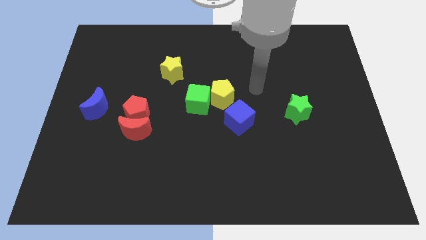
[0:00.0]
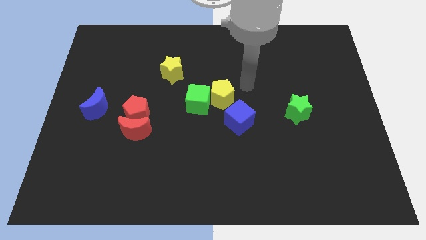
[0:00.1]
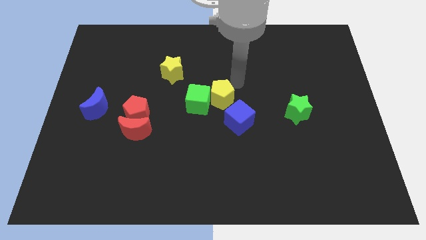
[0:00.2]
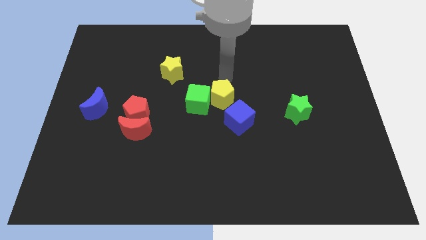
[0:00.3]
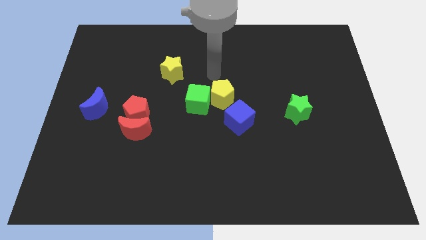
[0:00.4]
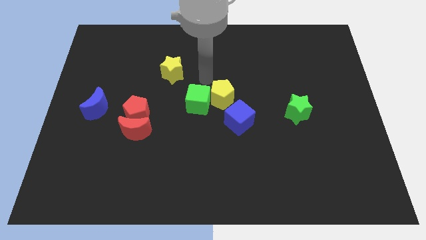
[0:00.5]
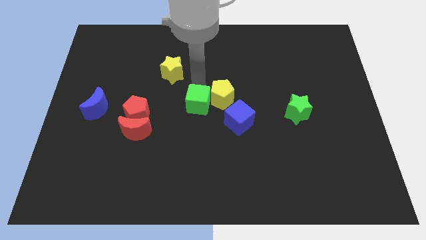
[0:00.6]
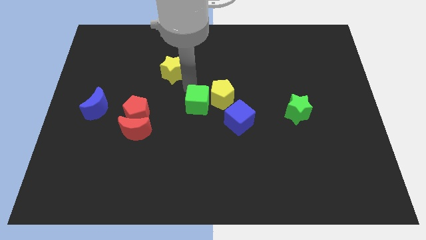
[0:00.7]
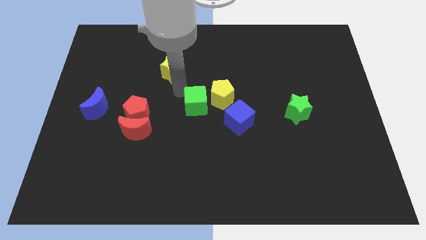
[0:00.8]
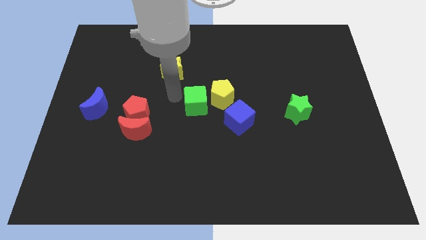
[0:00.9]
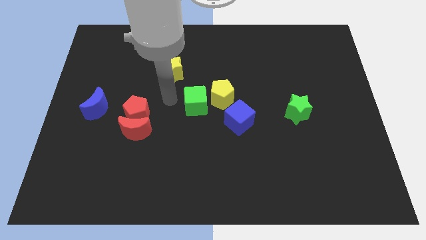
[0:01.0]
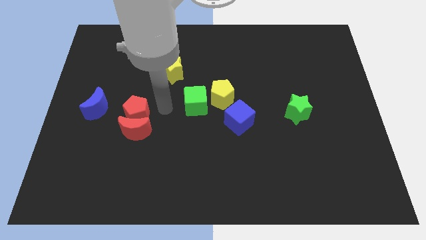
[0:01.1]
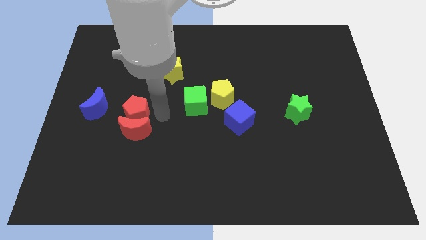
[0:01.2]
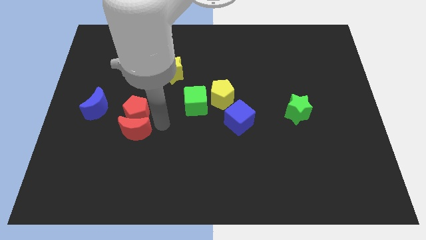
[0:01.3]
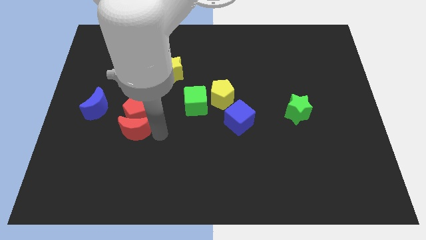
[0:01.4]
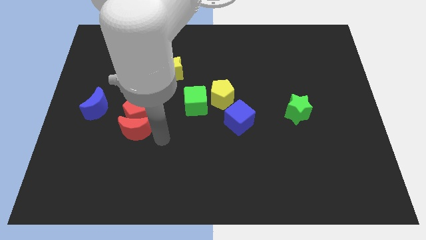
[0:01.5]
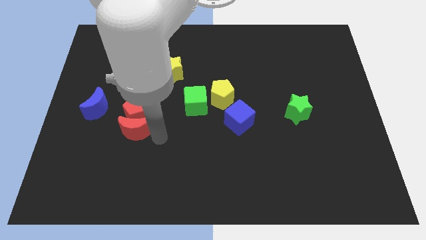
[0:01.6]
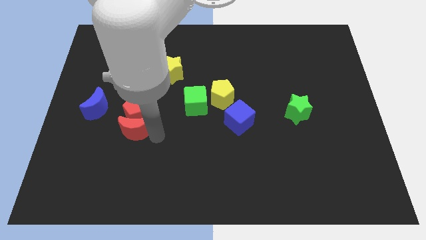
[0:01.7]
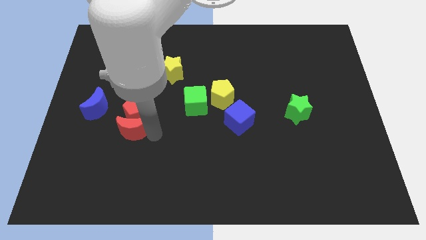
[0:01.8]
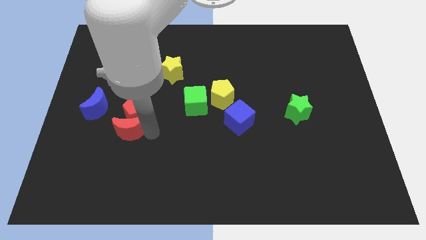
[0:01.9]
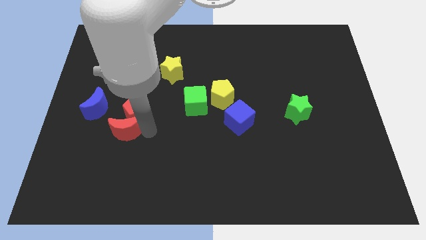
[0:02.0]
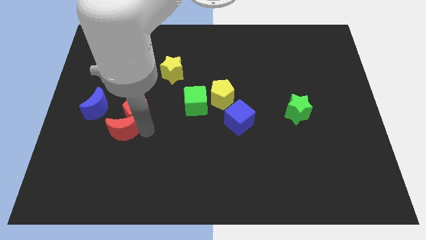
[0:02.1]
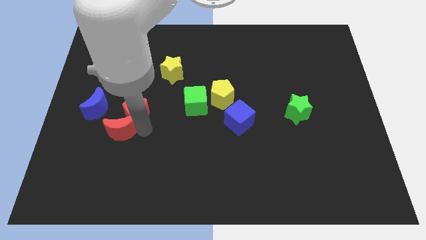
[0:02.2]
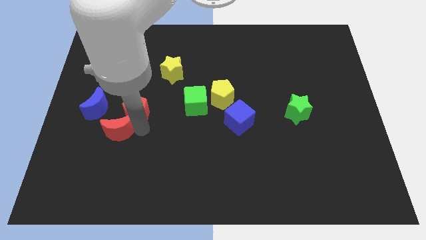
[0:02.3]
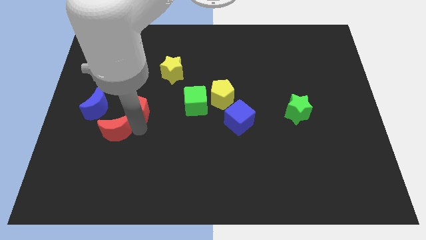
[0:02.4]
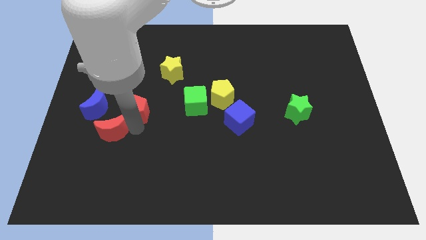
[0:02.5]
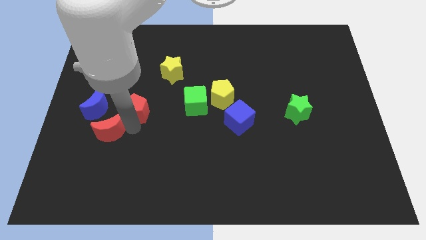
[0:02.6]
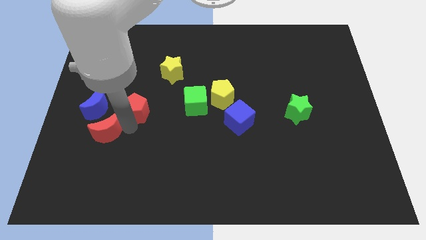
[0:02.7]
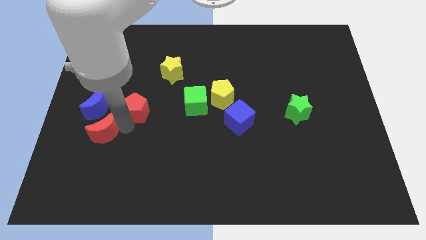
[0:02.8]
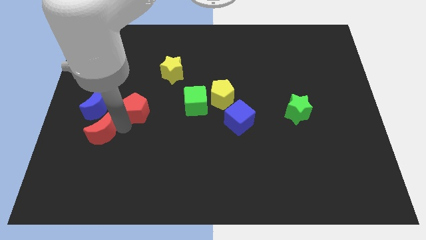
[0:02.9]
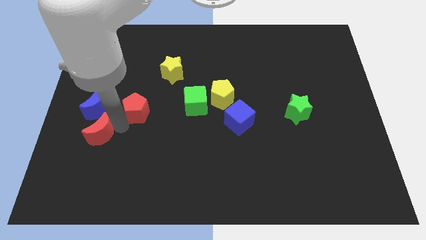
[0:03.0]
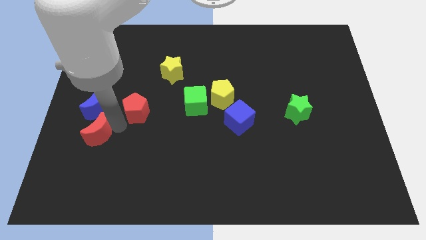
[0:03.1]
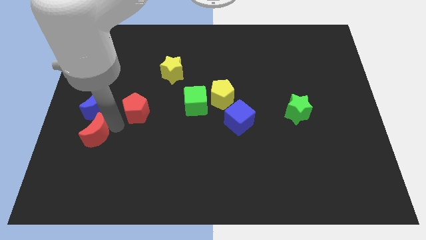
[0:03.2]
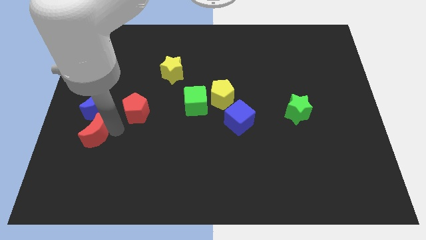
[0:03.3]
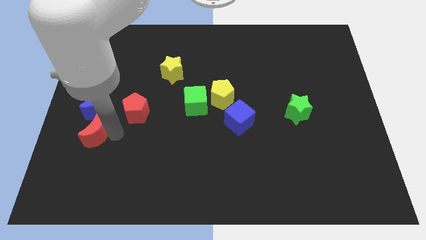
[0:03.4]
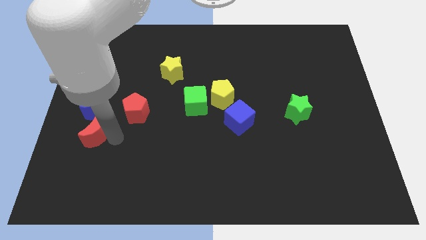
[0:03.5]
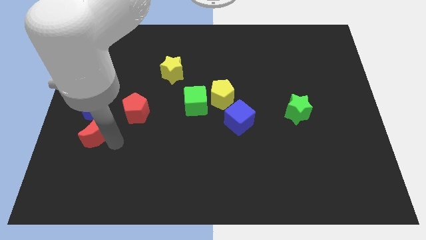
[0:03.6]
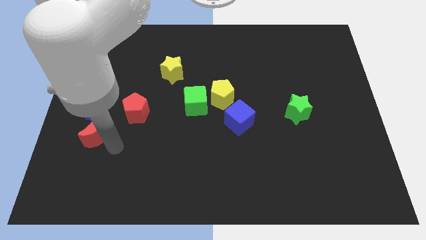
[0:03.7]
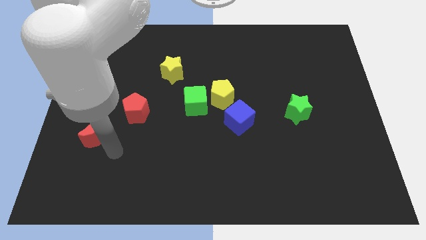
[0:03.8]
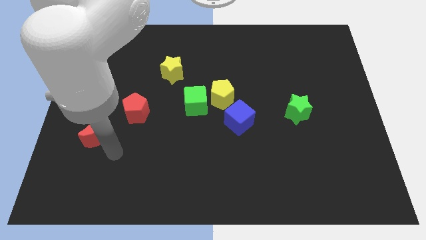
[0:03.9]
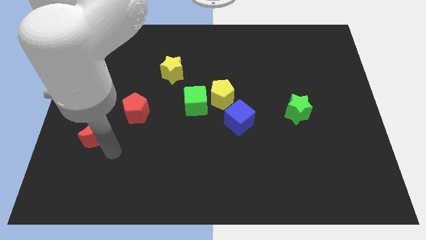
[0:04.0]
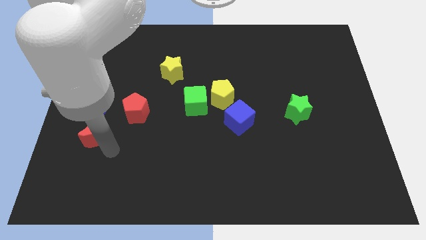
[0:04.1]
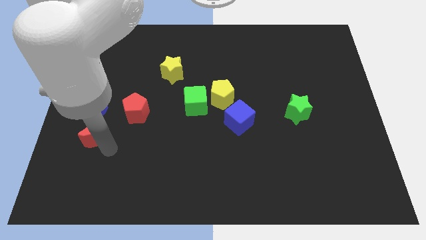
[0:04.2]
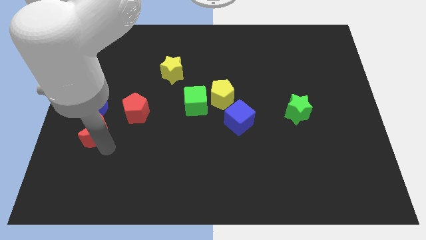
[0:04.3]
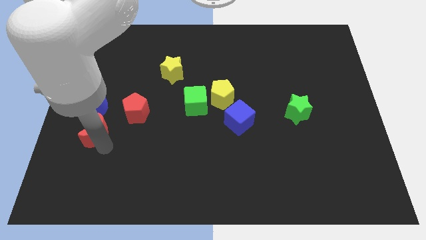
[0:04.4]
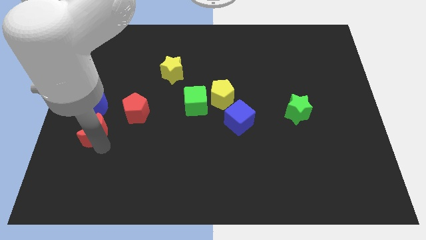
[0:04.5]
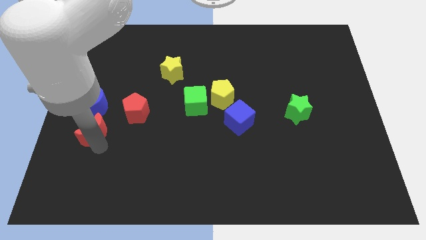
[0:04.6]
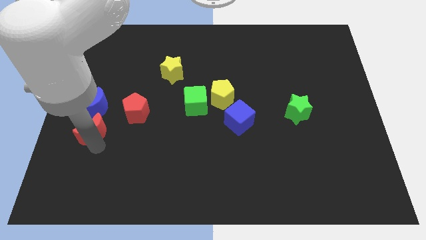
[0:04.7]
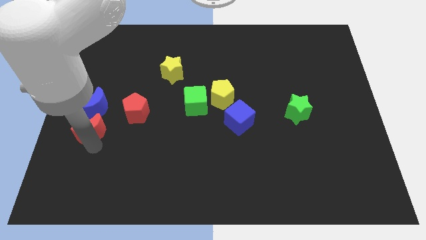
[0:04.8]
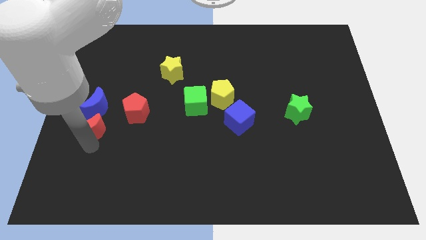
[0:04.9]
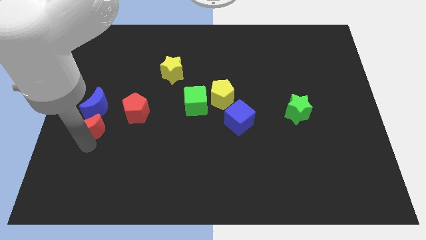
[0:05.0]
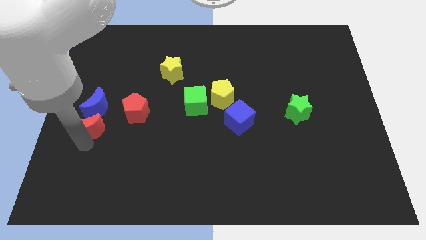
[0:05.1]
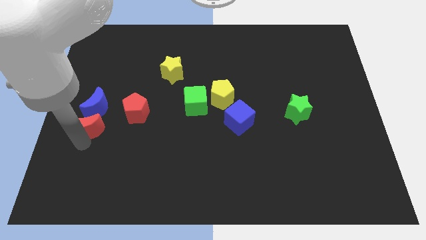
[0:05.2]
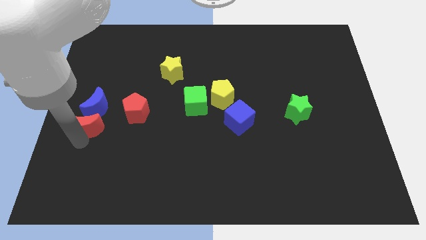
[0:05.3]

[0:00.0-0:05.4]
slide the red moon left of the red pentagon

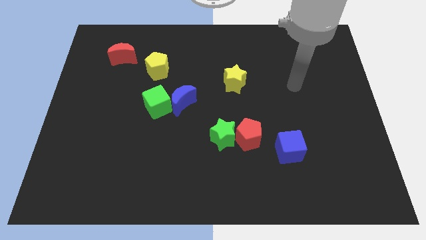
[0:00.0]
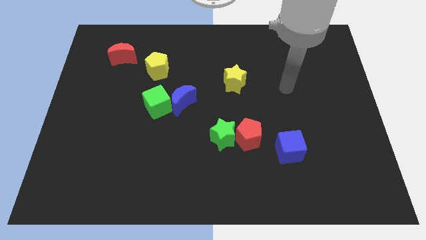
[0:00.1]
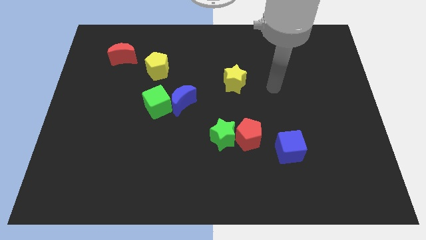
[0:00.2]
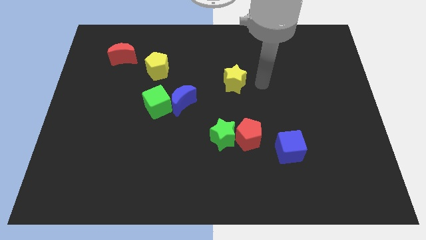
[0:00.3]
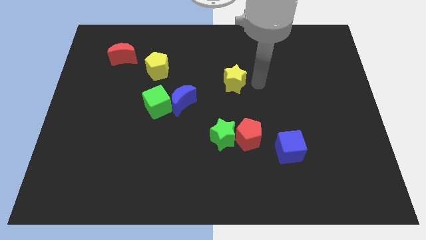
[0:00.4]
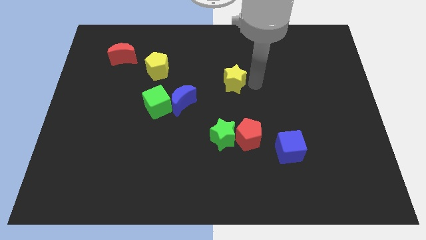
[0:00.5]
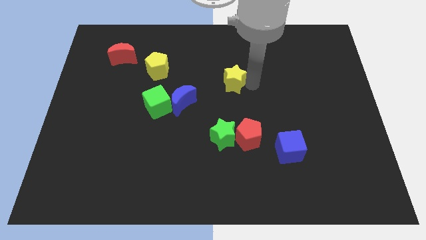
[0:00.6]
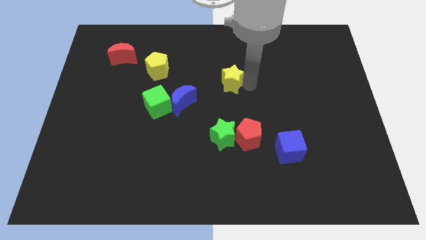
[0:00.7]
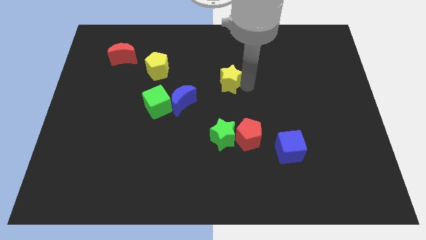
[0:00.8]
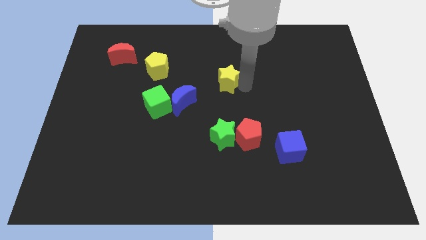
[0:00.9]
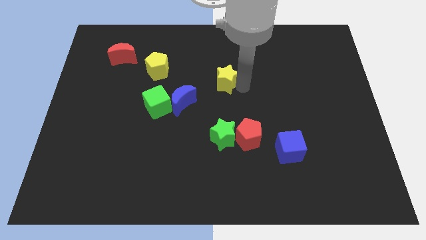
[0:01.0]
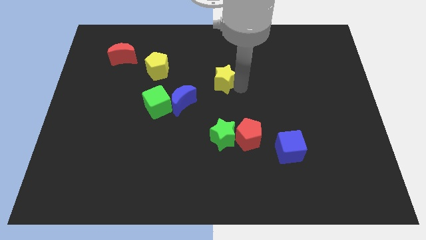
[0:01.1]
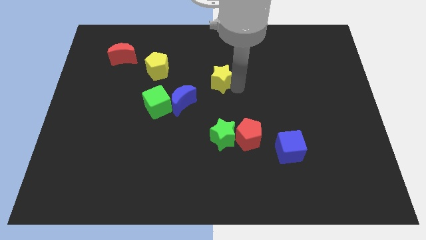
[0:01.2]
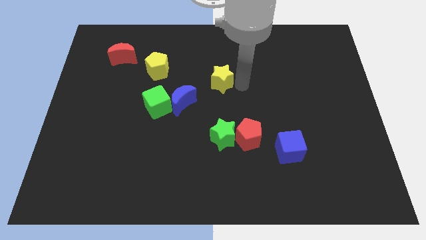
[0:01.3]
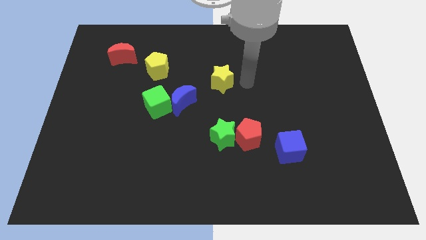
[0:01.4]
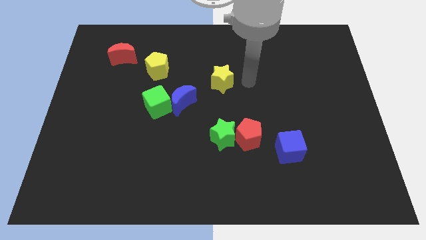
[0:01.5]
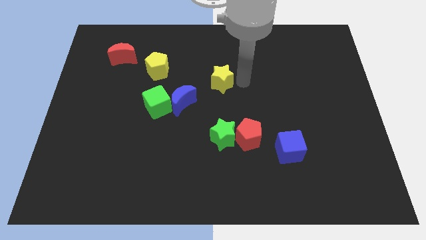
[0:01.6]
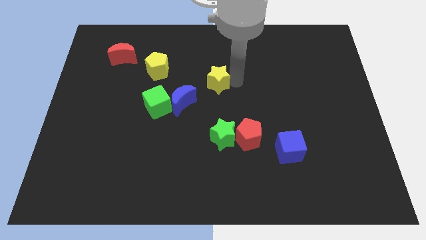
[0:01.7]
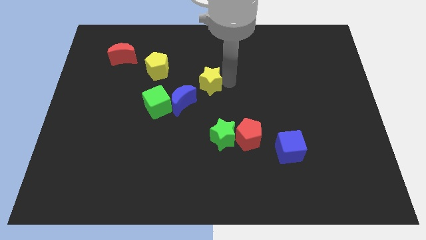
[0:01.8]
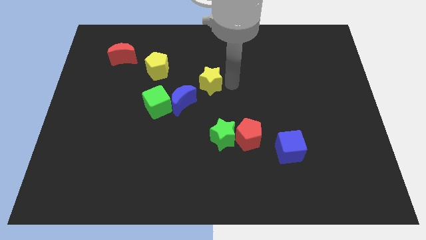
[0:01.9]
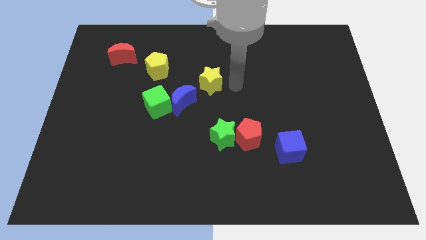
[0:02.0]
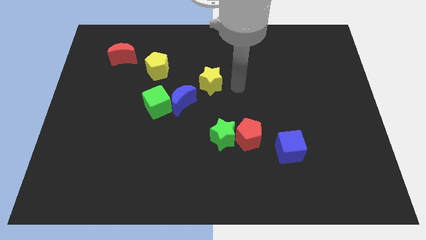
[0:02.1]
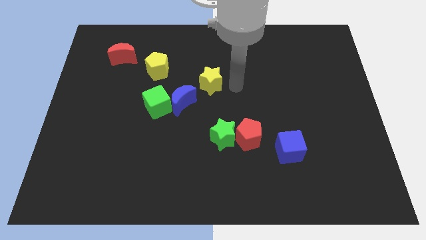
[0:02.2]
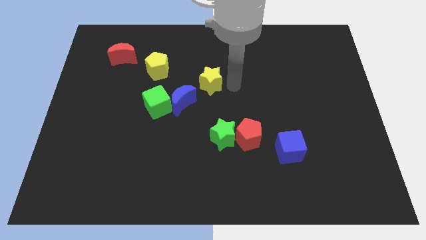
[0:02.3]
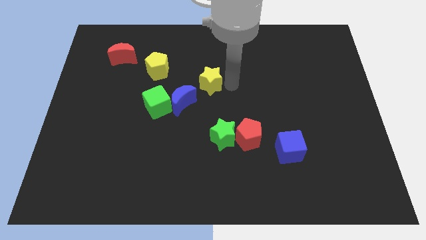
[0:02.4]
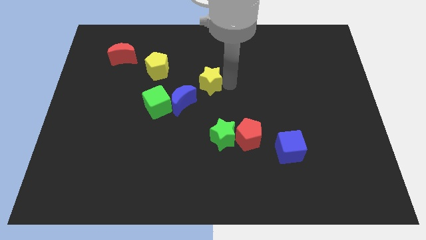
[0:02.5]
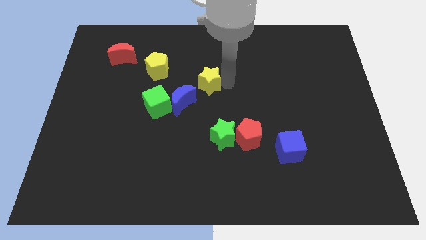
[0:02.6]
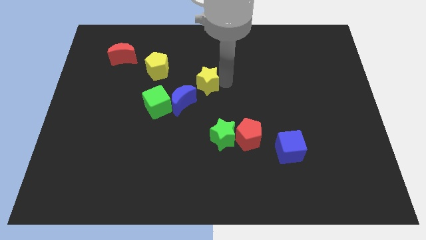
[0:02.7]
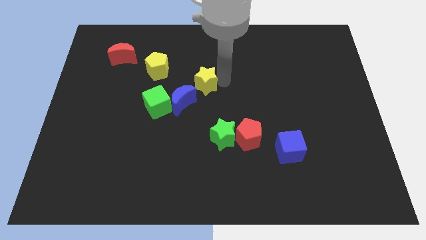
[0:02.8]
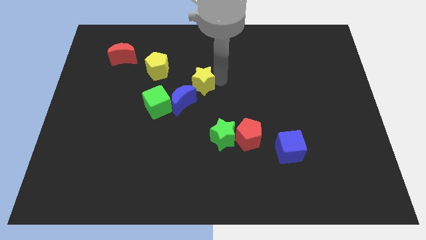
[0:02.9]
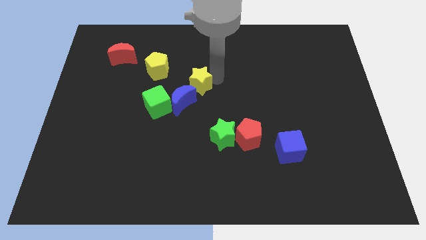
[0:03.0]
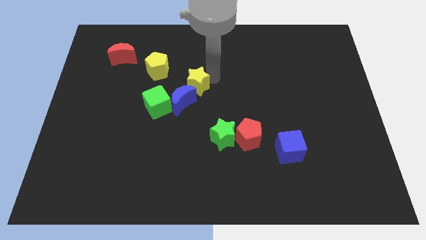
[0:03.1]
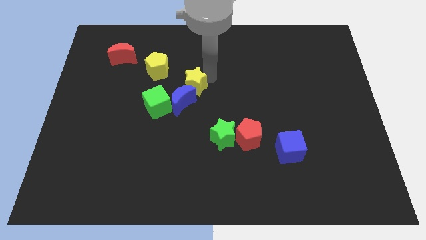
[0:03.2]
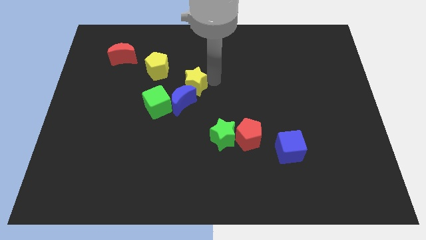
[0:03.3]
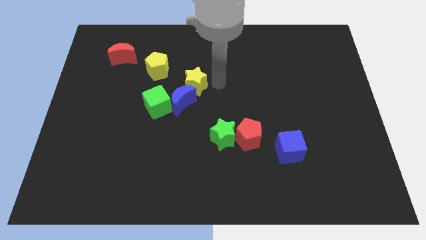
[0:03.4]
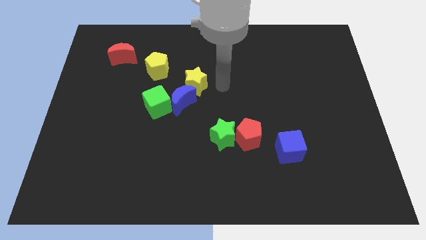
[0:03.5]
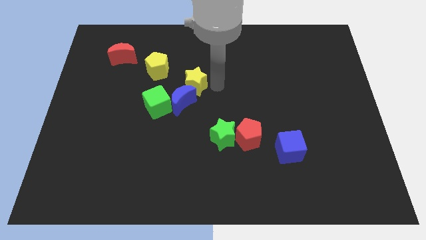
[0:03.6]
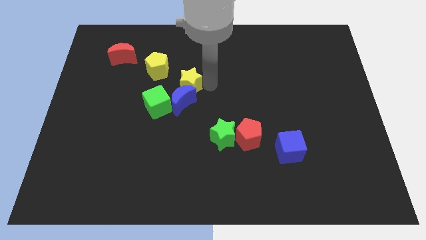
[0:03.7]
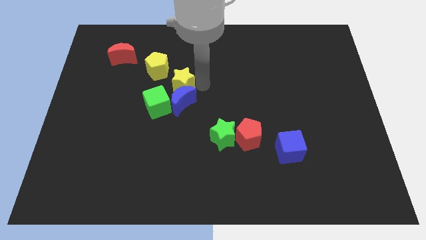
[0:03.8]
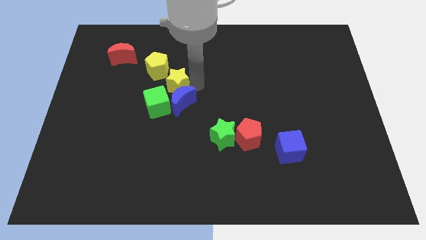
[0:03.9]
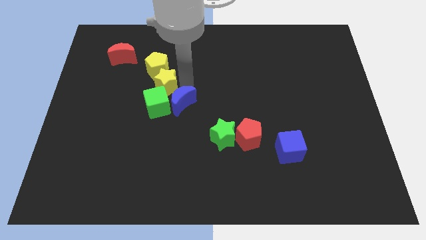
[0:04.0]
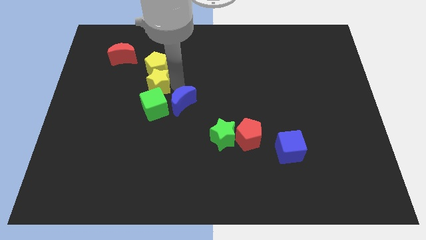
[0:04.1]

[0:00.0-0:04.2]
slide the yellow star diagonally down and to the left of the yellow pentagon
